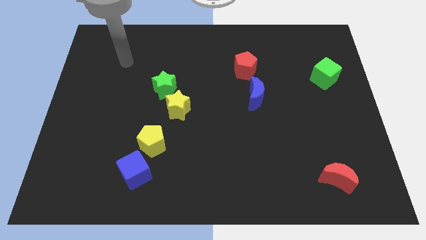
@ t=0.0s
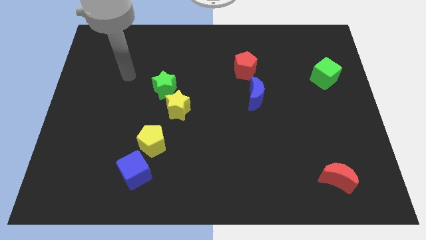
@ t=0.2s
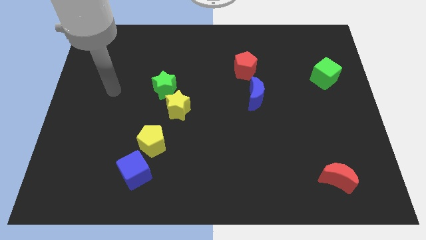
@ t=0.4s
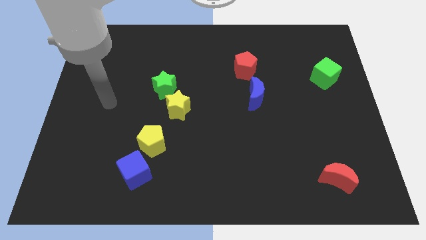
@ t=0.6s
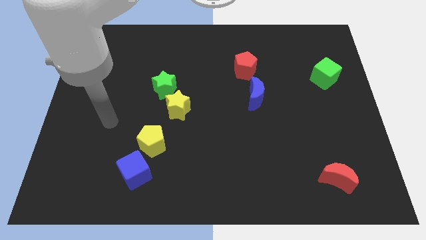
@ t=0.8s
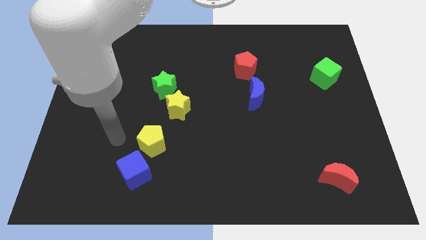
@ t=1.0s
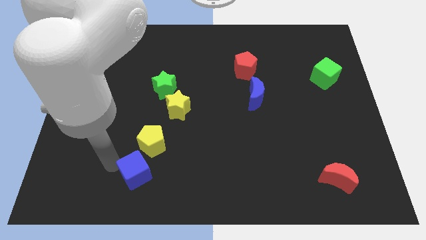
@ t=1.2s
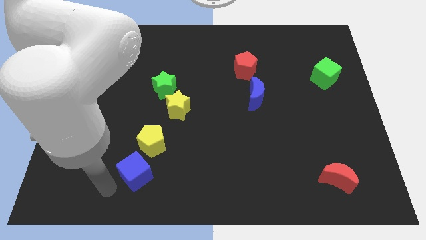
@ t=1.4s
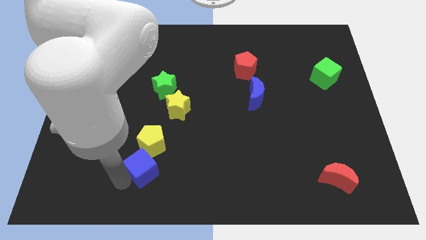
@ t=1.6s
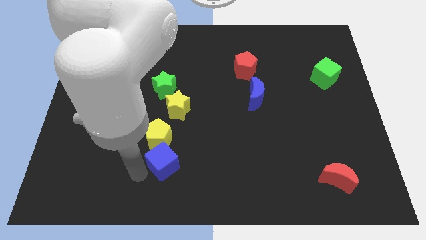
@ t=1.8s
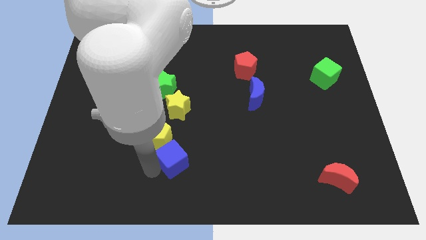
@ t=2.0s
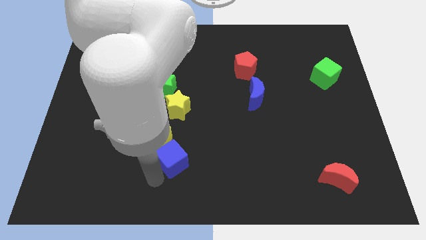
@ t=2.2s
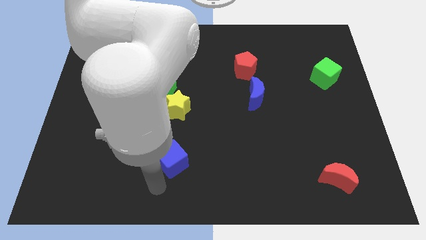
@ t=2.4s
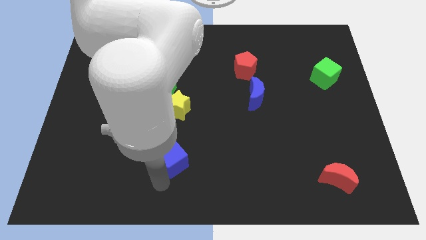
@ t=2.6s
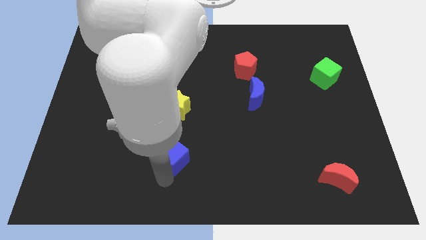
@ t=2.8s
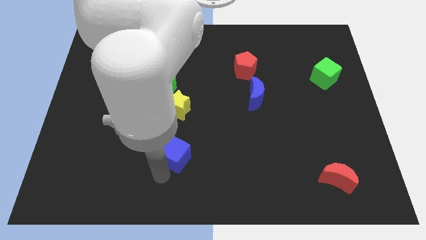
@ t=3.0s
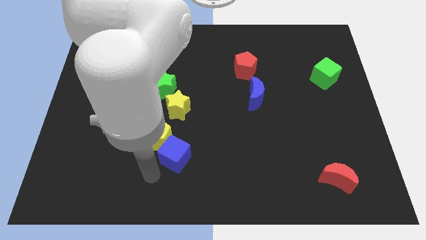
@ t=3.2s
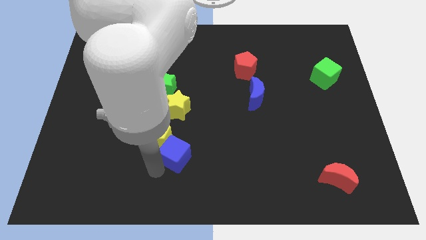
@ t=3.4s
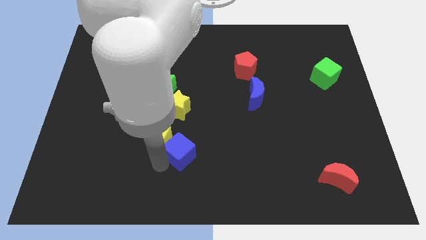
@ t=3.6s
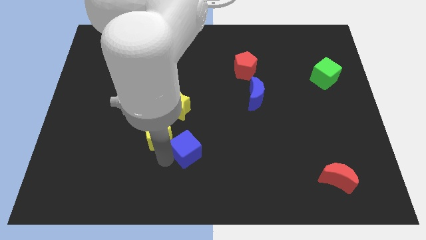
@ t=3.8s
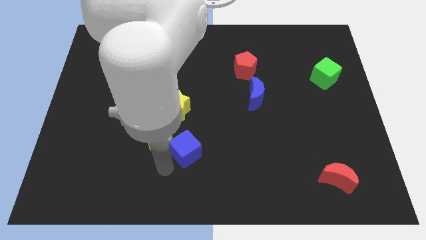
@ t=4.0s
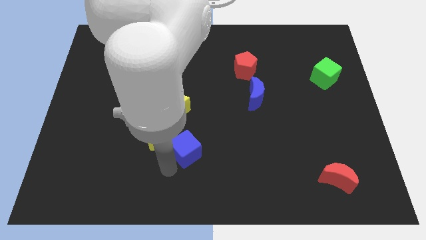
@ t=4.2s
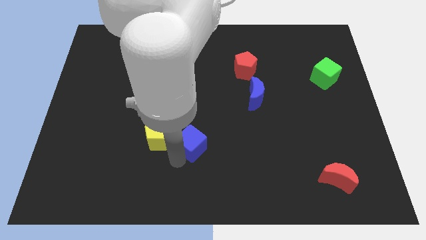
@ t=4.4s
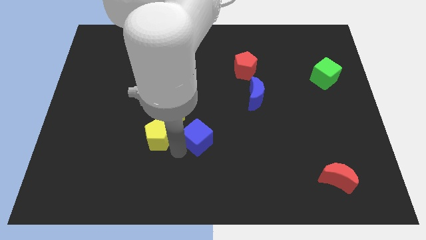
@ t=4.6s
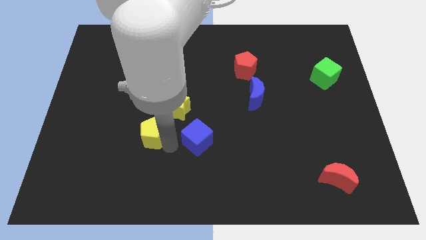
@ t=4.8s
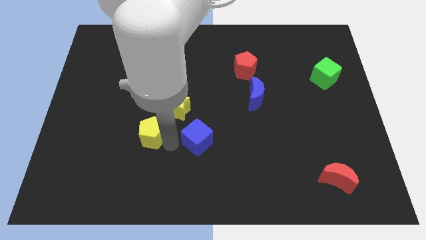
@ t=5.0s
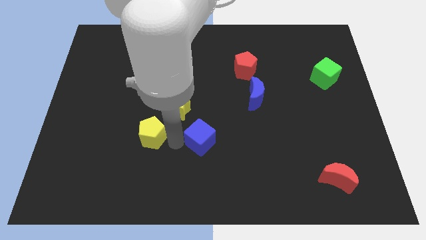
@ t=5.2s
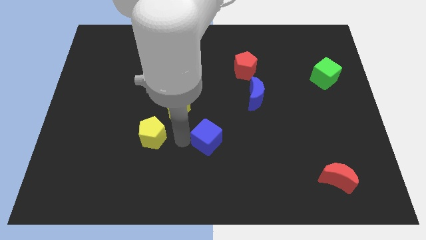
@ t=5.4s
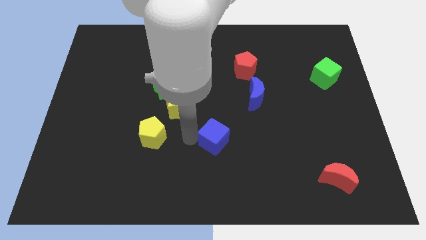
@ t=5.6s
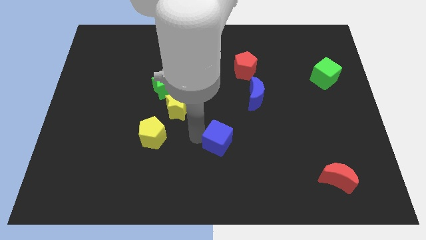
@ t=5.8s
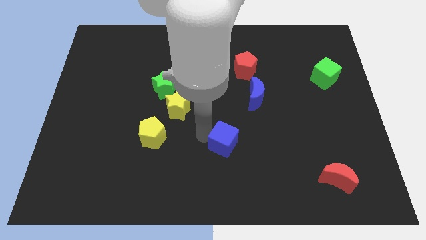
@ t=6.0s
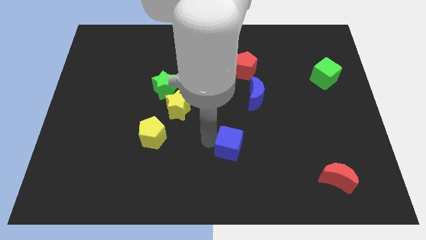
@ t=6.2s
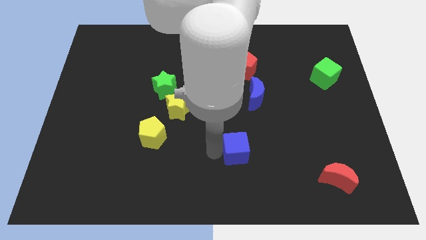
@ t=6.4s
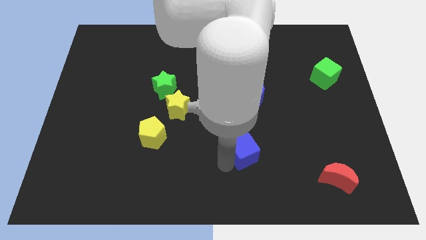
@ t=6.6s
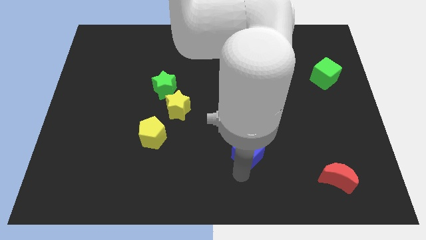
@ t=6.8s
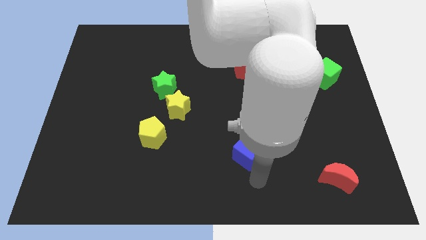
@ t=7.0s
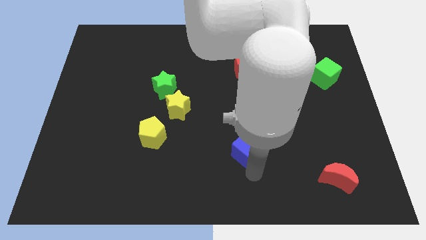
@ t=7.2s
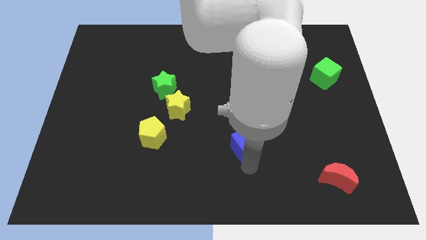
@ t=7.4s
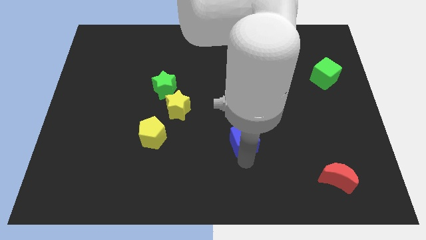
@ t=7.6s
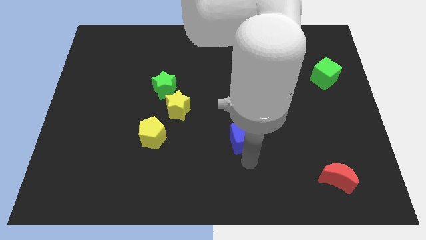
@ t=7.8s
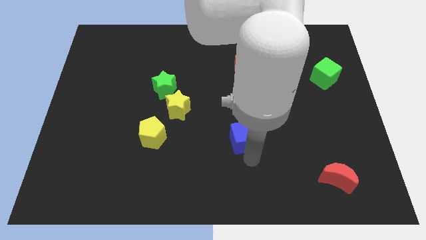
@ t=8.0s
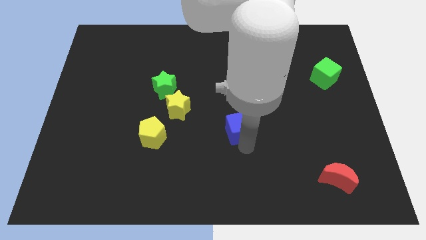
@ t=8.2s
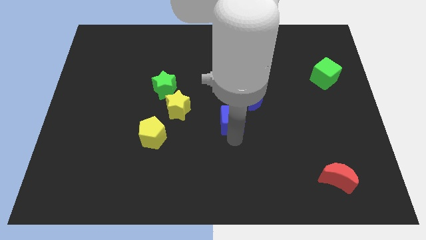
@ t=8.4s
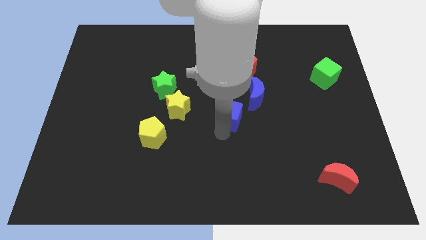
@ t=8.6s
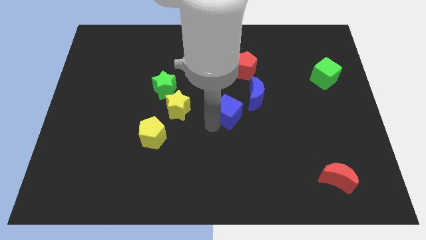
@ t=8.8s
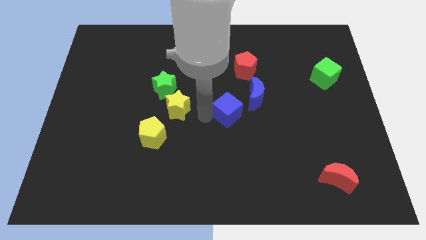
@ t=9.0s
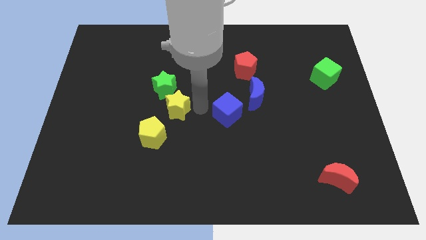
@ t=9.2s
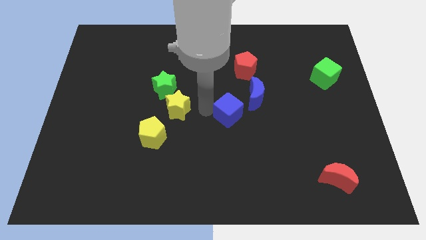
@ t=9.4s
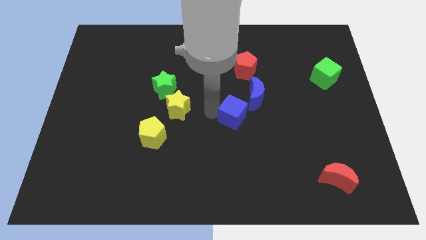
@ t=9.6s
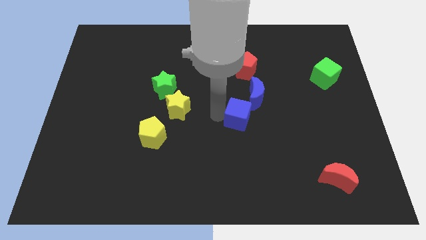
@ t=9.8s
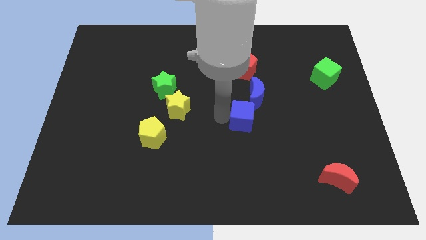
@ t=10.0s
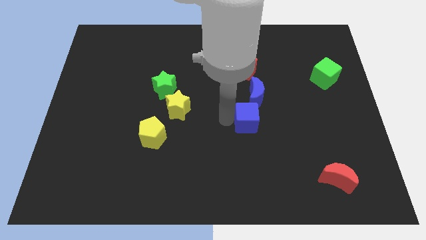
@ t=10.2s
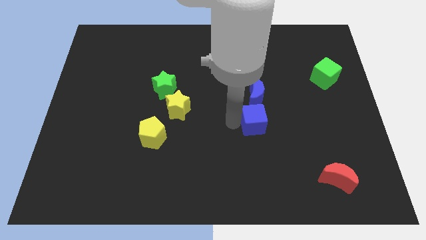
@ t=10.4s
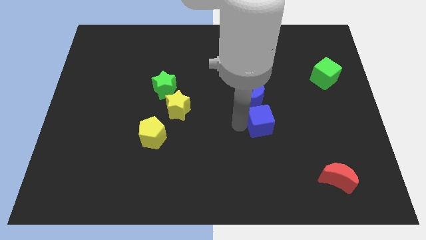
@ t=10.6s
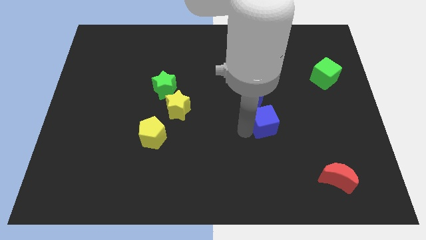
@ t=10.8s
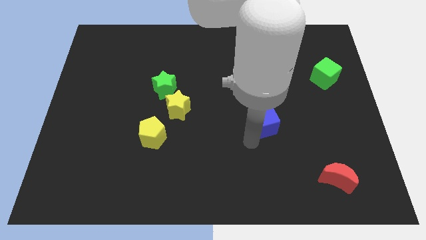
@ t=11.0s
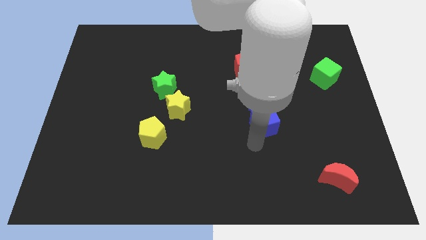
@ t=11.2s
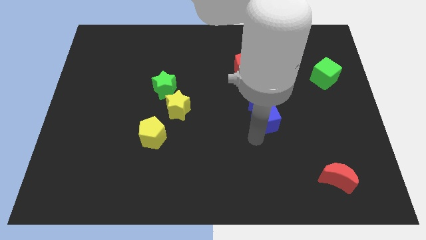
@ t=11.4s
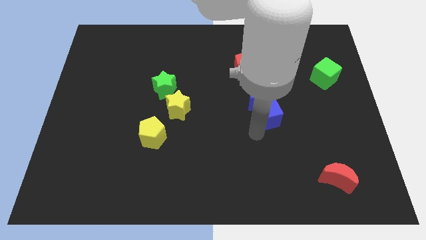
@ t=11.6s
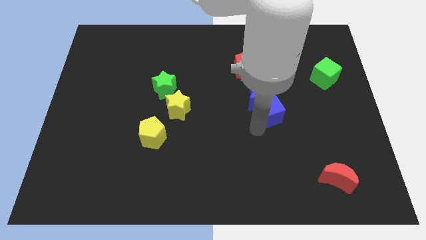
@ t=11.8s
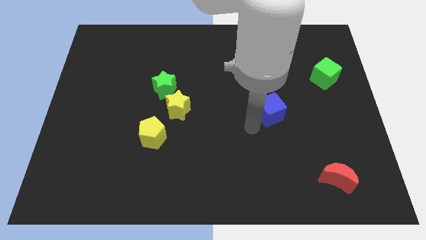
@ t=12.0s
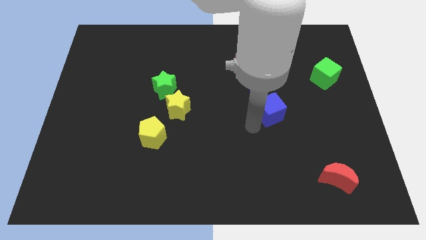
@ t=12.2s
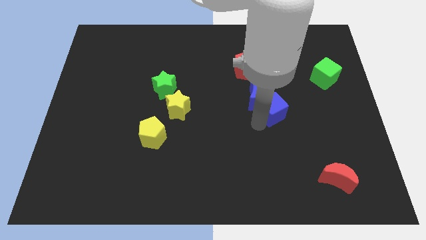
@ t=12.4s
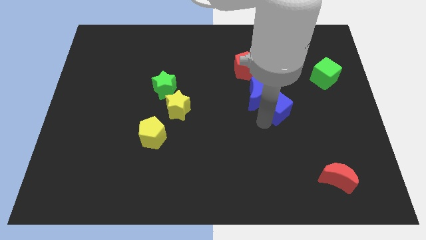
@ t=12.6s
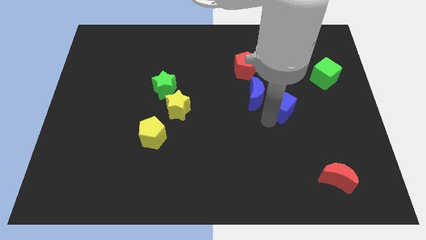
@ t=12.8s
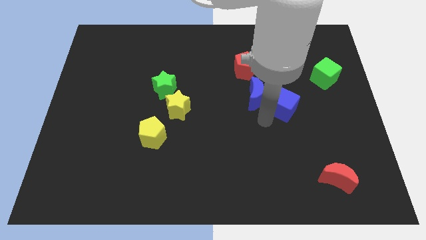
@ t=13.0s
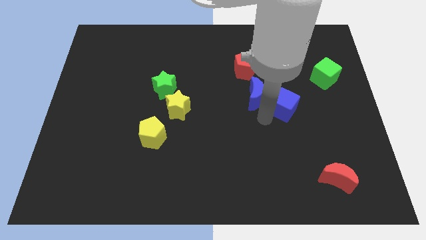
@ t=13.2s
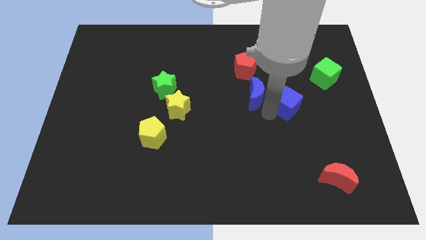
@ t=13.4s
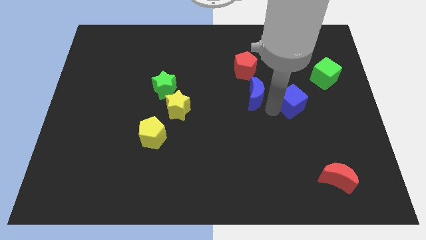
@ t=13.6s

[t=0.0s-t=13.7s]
slide the blue cube to the bottom left side of the green cube

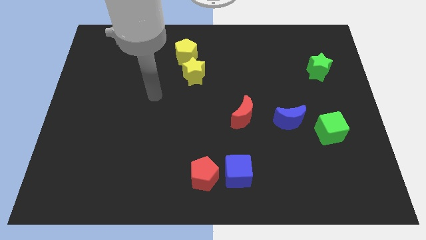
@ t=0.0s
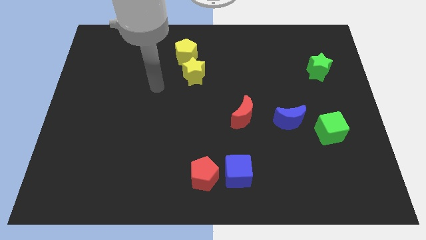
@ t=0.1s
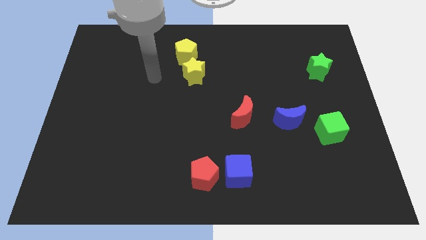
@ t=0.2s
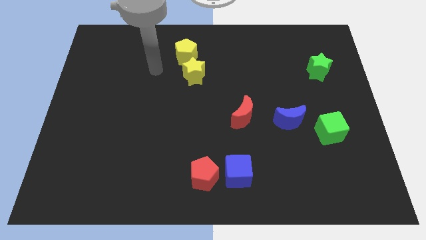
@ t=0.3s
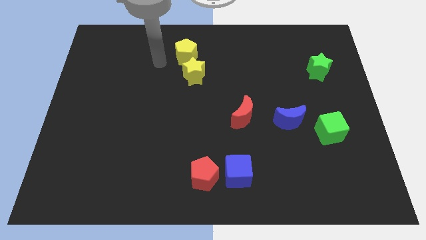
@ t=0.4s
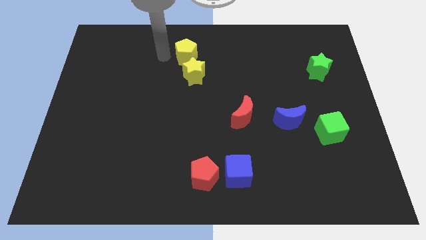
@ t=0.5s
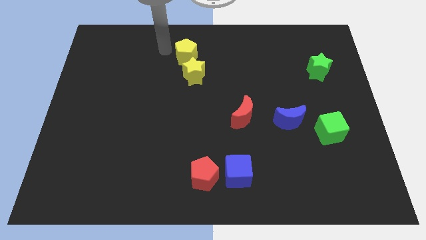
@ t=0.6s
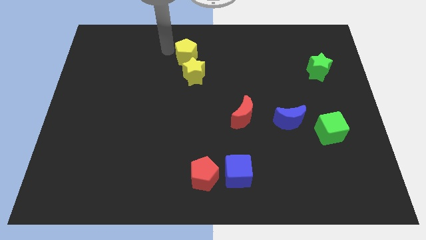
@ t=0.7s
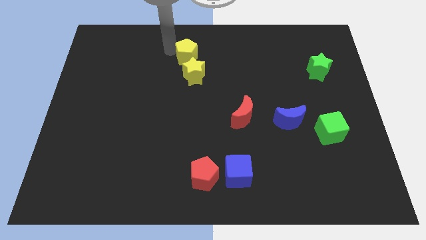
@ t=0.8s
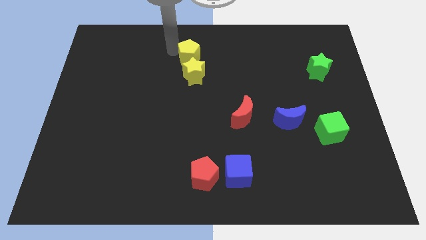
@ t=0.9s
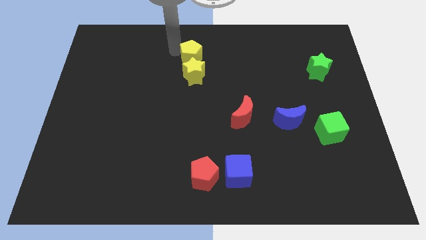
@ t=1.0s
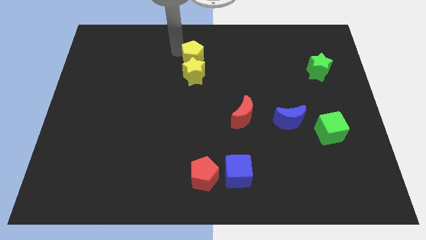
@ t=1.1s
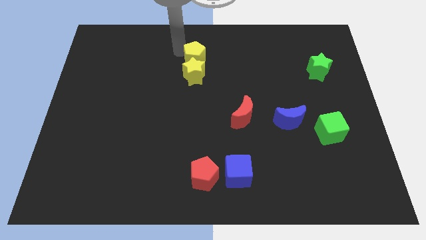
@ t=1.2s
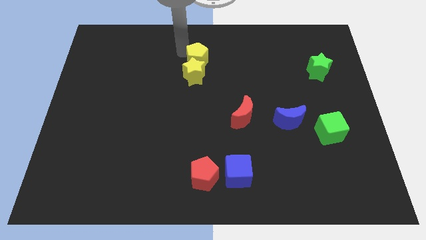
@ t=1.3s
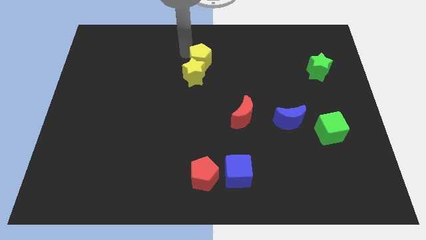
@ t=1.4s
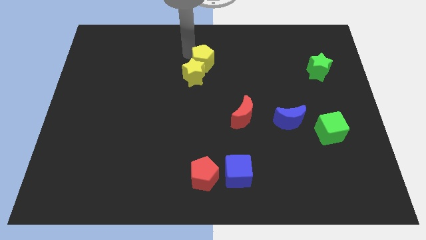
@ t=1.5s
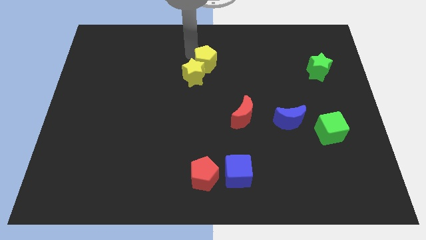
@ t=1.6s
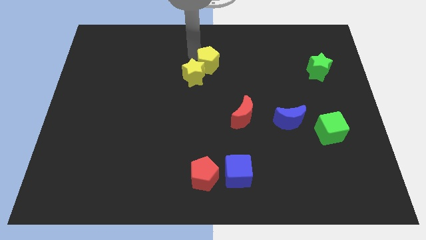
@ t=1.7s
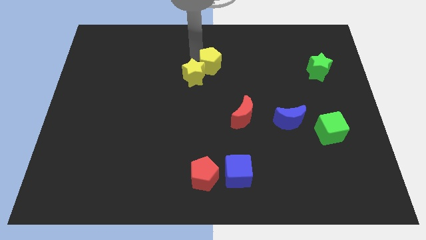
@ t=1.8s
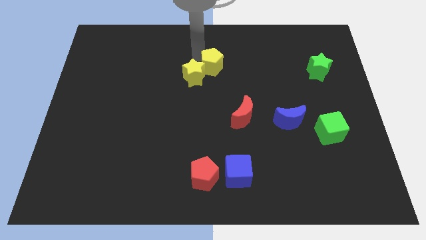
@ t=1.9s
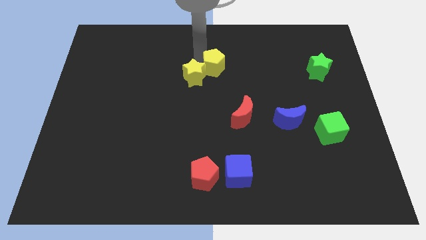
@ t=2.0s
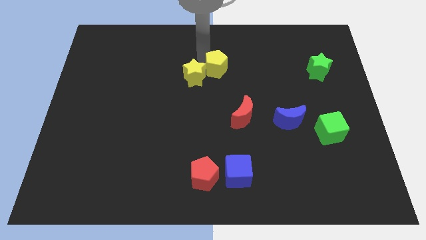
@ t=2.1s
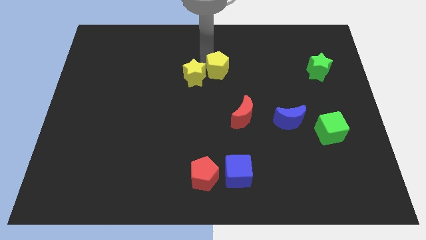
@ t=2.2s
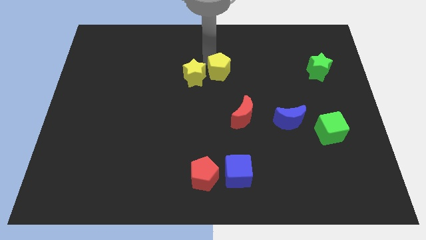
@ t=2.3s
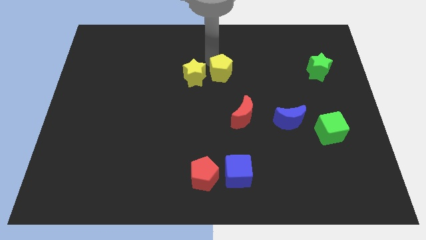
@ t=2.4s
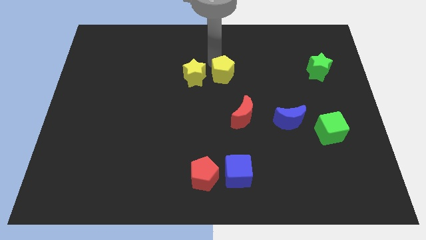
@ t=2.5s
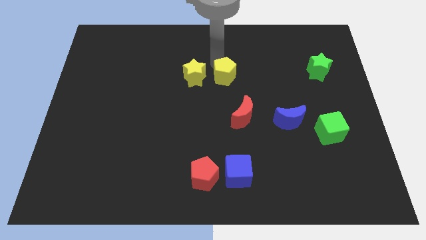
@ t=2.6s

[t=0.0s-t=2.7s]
put the yellow pentagon above the red moon
